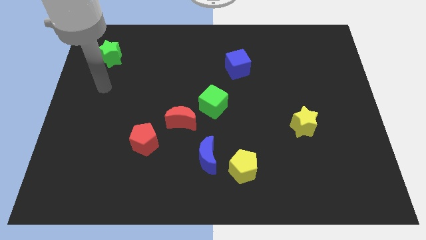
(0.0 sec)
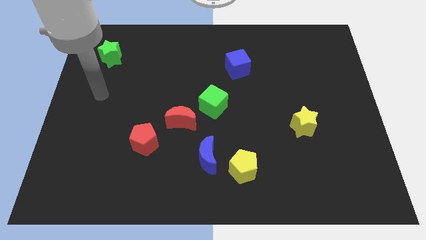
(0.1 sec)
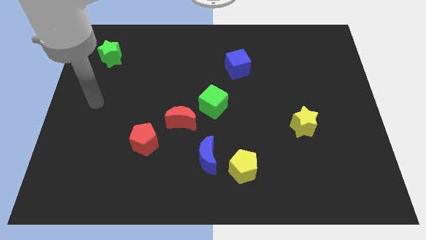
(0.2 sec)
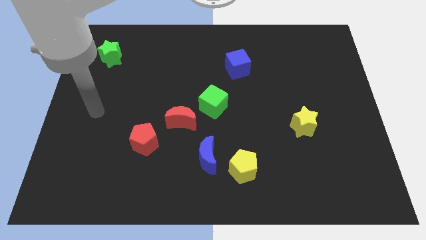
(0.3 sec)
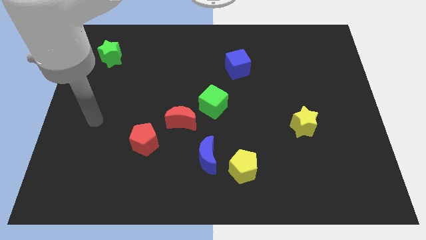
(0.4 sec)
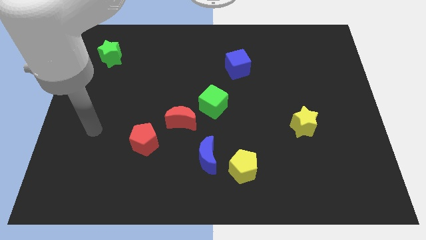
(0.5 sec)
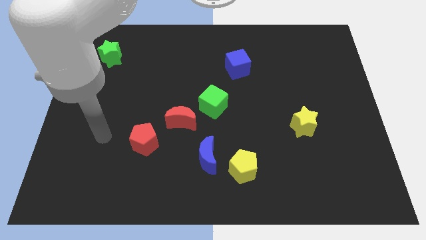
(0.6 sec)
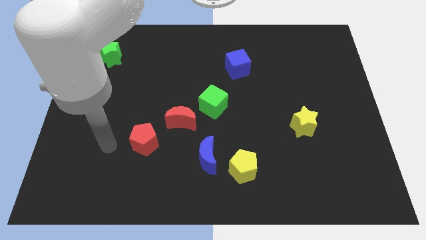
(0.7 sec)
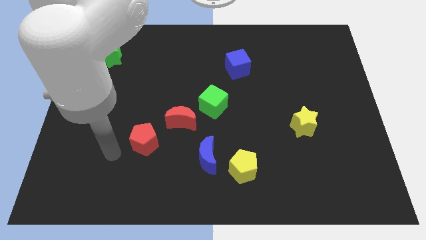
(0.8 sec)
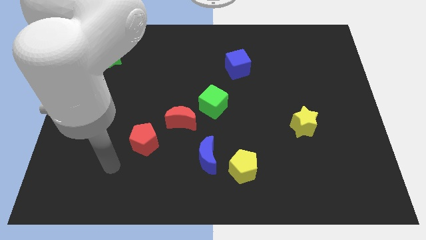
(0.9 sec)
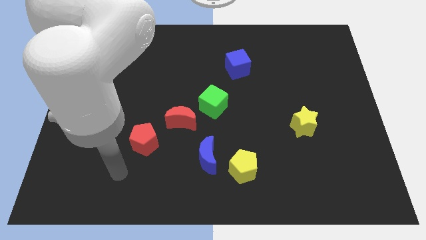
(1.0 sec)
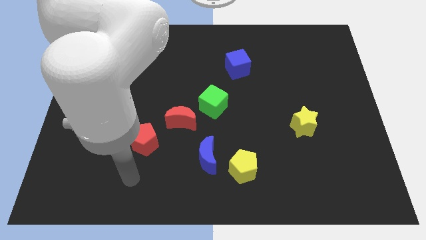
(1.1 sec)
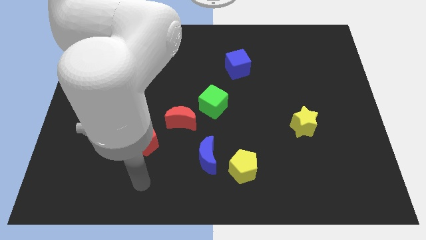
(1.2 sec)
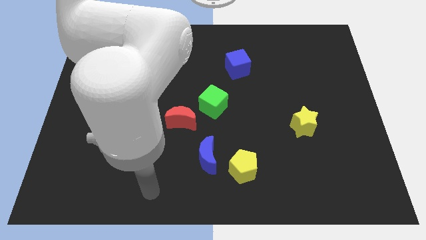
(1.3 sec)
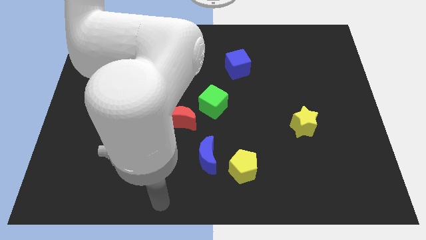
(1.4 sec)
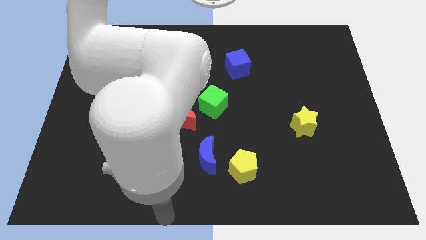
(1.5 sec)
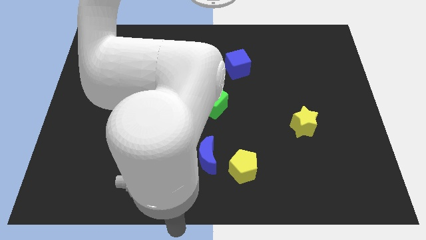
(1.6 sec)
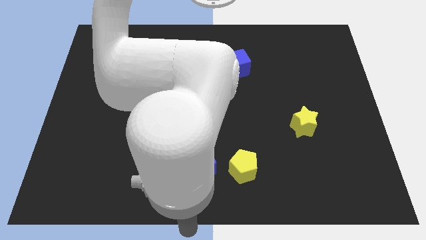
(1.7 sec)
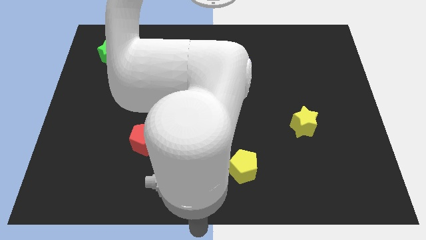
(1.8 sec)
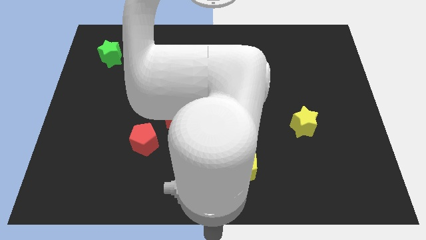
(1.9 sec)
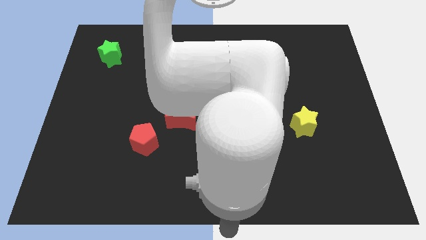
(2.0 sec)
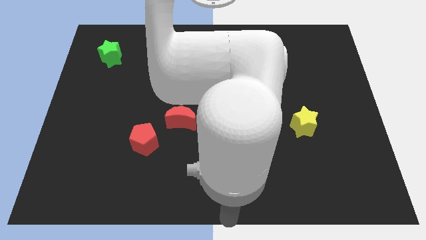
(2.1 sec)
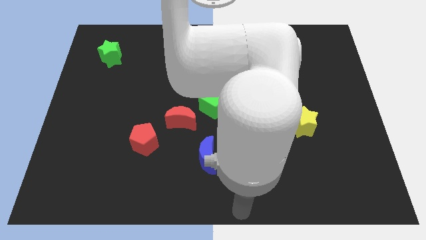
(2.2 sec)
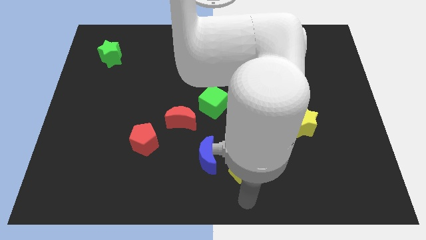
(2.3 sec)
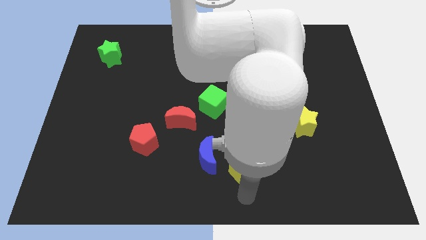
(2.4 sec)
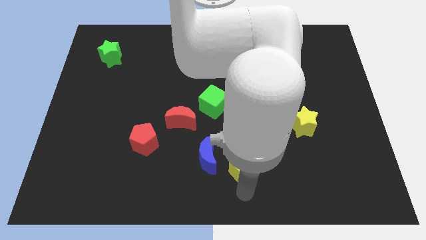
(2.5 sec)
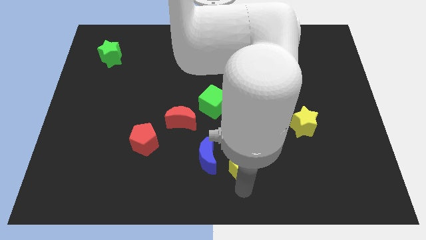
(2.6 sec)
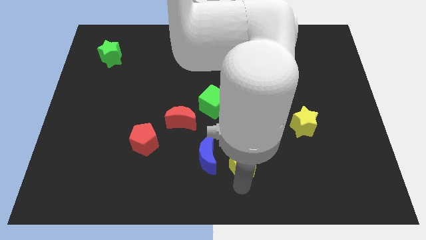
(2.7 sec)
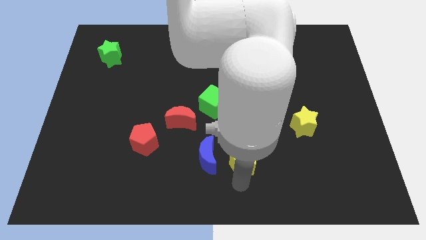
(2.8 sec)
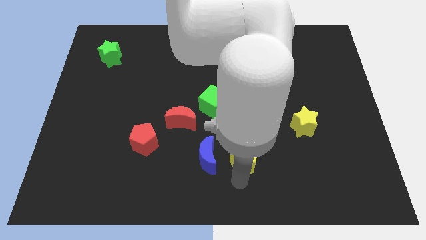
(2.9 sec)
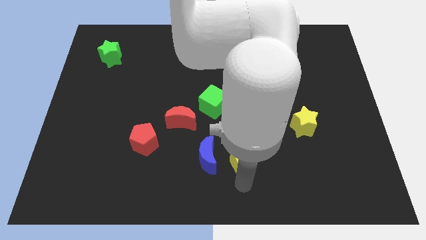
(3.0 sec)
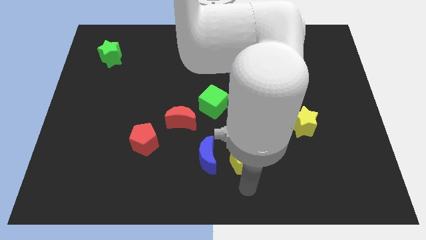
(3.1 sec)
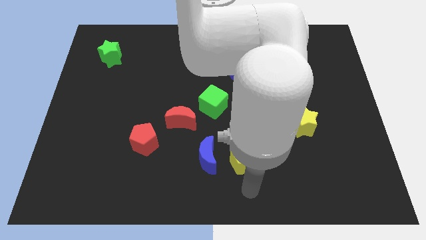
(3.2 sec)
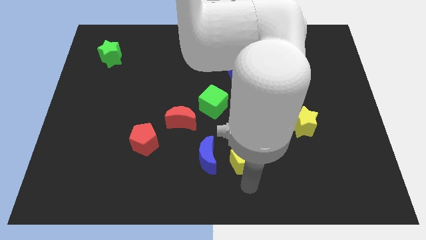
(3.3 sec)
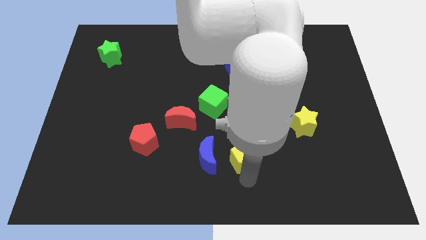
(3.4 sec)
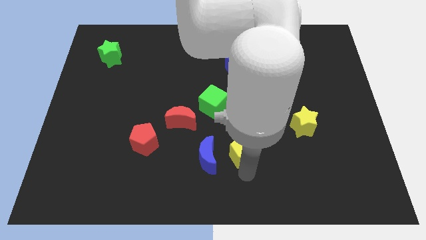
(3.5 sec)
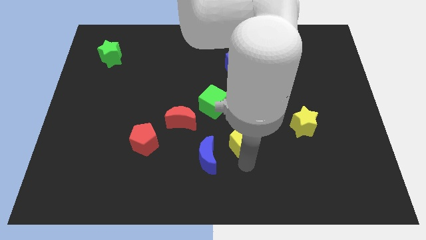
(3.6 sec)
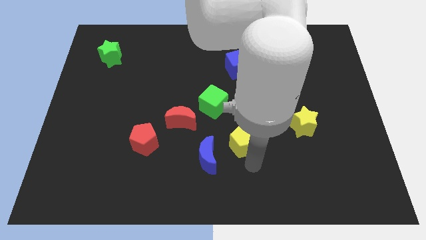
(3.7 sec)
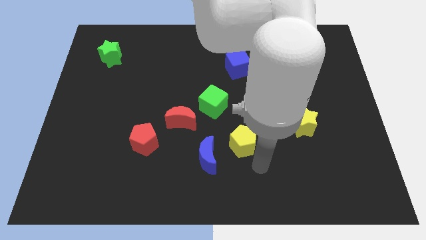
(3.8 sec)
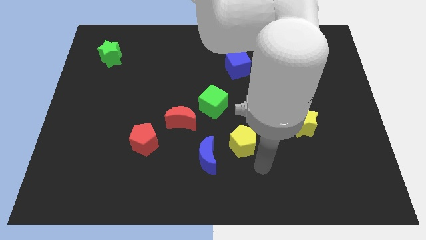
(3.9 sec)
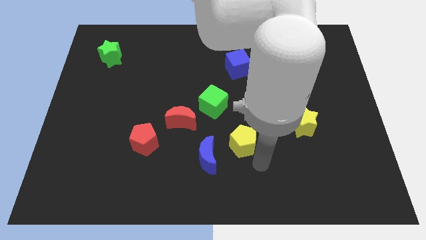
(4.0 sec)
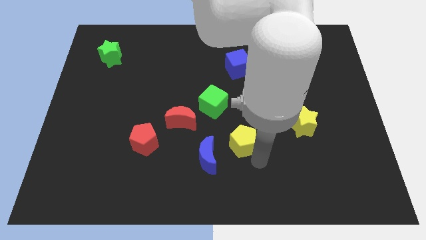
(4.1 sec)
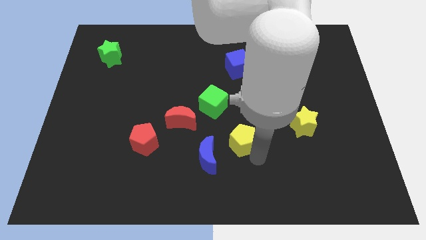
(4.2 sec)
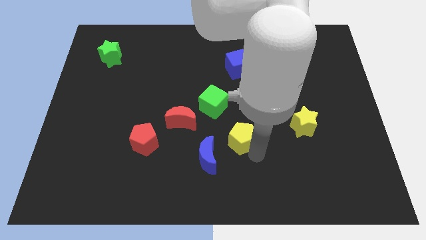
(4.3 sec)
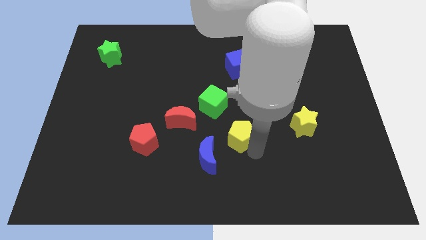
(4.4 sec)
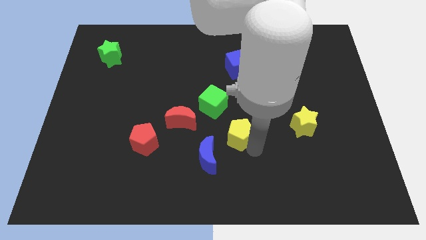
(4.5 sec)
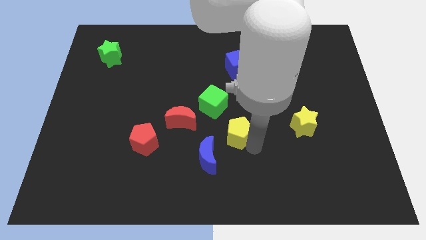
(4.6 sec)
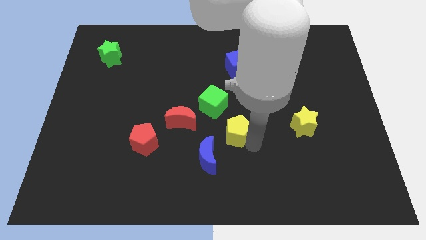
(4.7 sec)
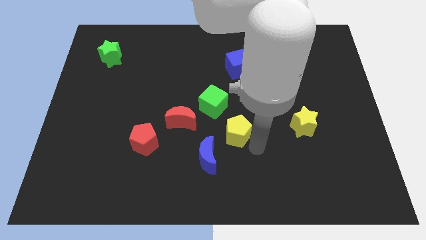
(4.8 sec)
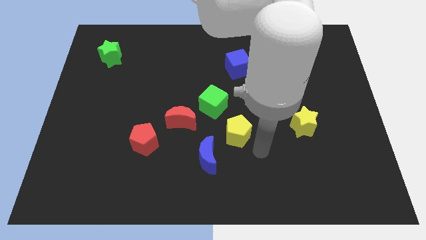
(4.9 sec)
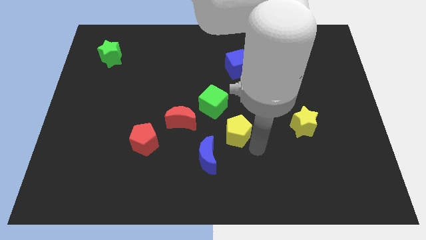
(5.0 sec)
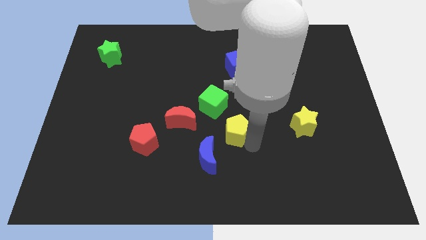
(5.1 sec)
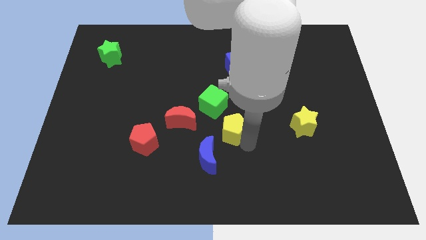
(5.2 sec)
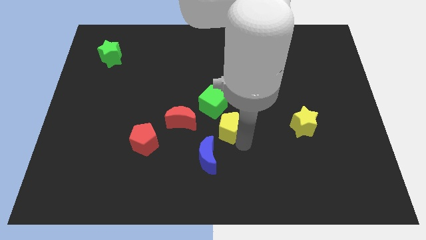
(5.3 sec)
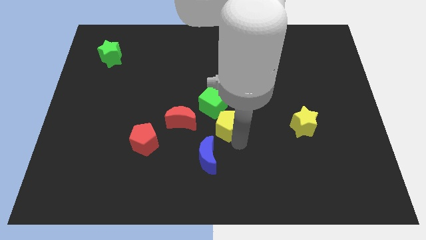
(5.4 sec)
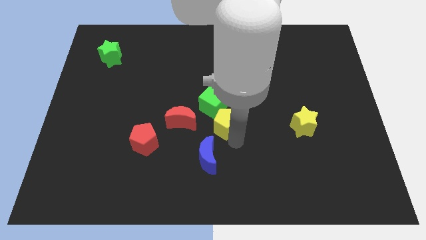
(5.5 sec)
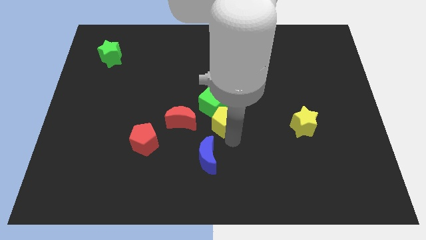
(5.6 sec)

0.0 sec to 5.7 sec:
slide the yellow pentagon to the green cube

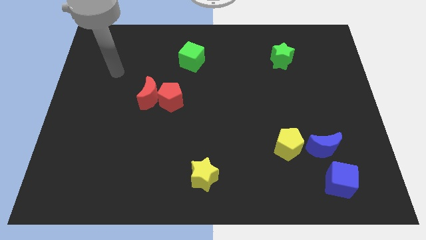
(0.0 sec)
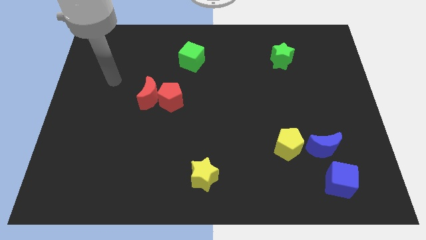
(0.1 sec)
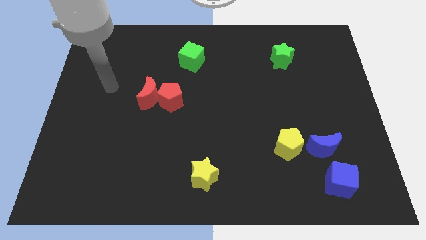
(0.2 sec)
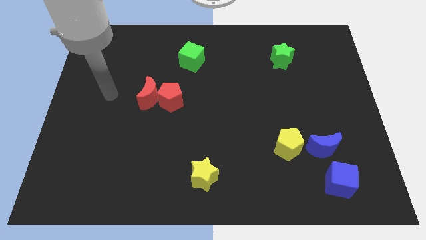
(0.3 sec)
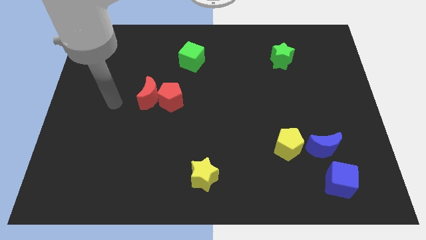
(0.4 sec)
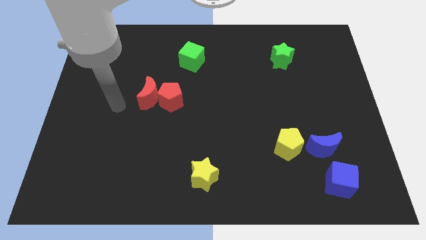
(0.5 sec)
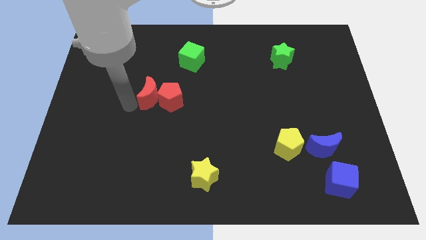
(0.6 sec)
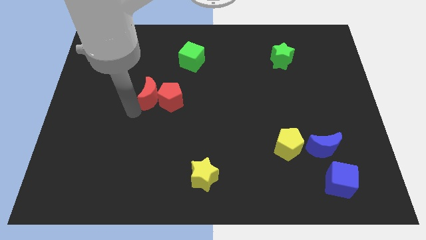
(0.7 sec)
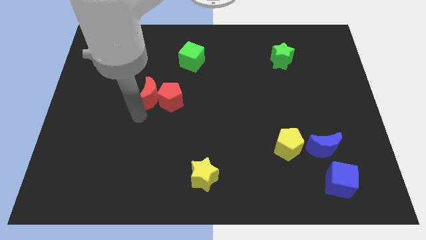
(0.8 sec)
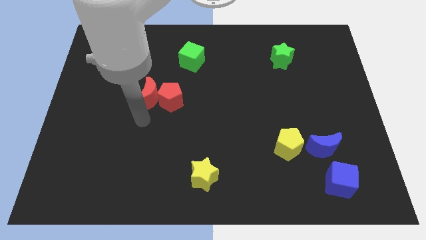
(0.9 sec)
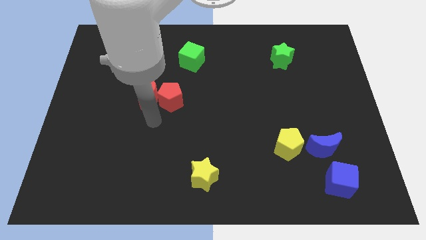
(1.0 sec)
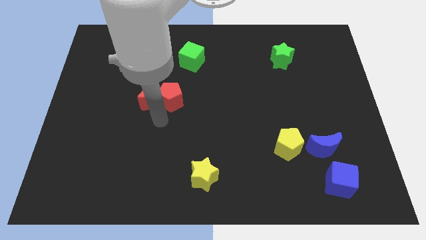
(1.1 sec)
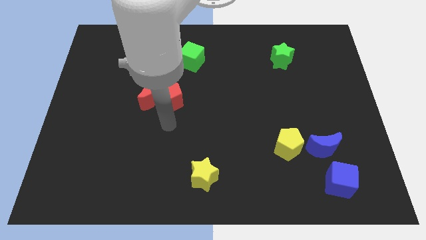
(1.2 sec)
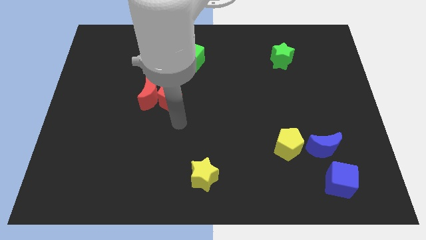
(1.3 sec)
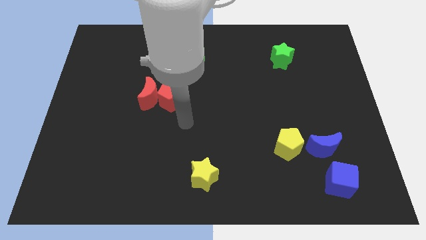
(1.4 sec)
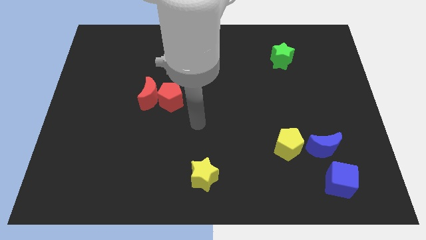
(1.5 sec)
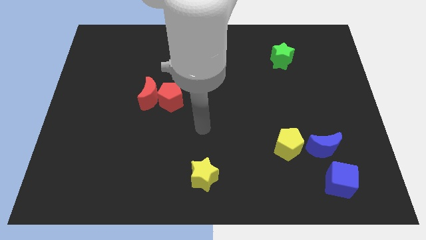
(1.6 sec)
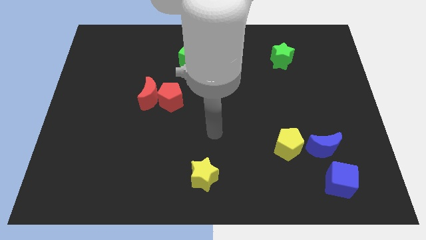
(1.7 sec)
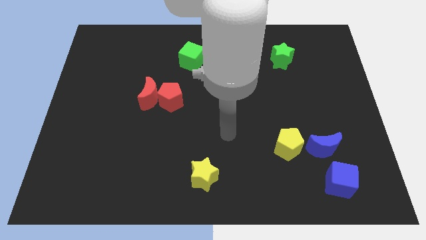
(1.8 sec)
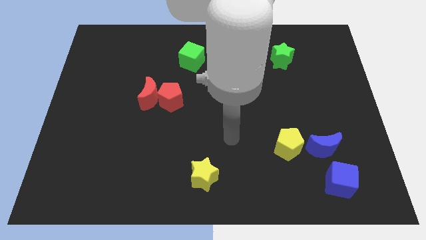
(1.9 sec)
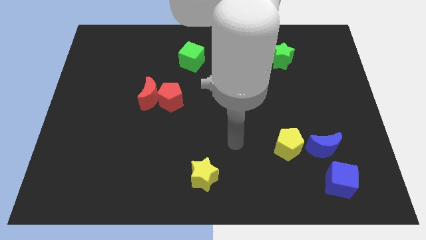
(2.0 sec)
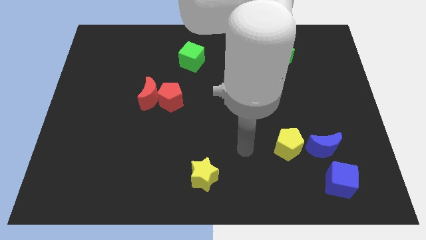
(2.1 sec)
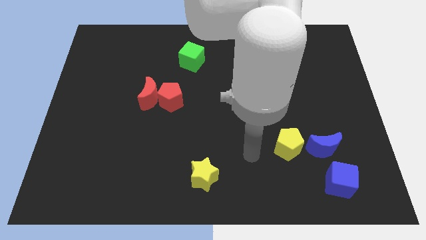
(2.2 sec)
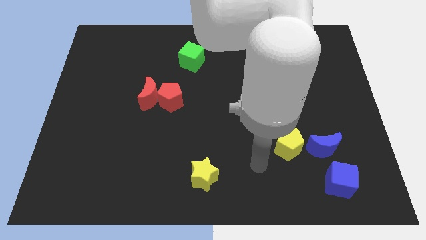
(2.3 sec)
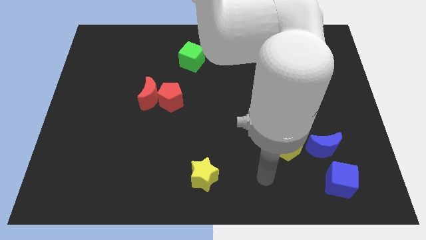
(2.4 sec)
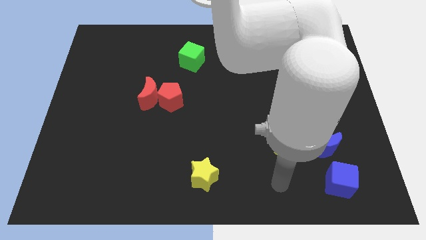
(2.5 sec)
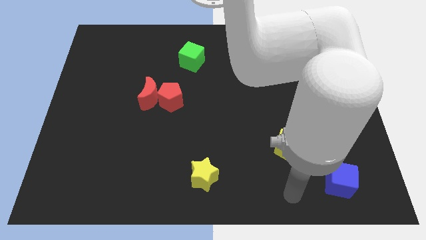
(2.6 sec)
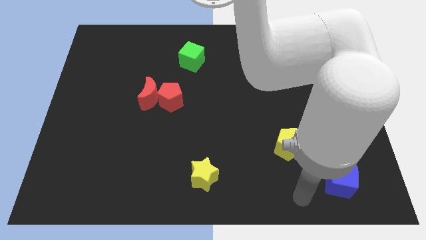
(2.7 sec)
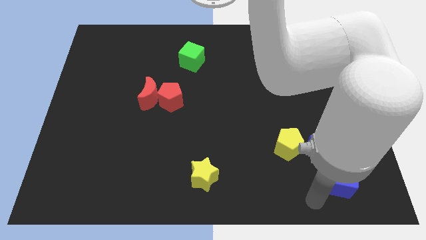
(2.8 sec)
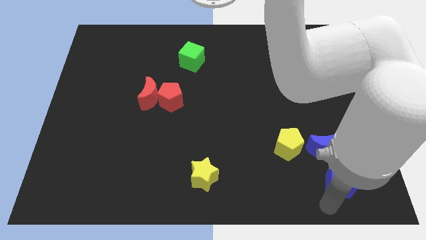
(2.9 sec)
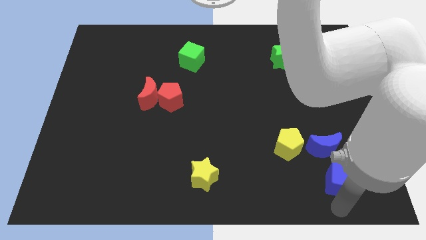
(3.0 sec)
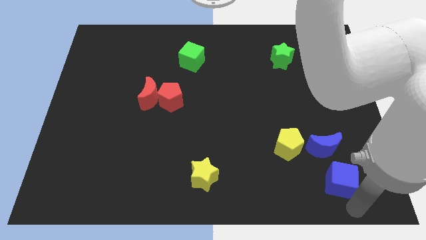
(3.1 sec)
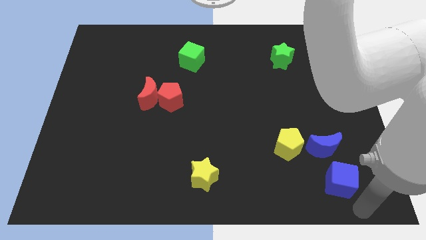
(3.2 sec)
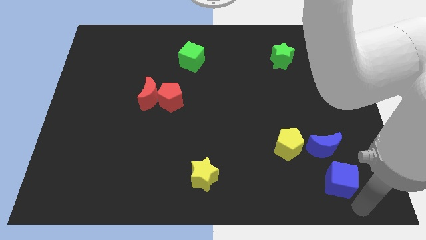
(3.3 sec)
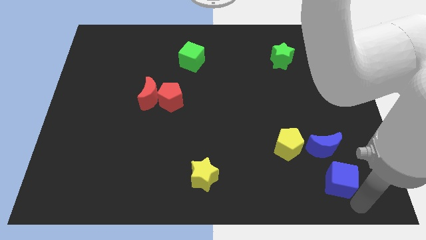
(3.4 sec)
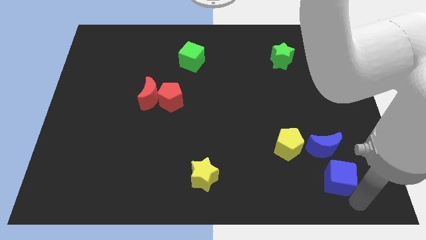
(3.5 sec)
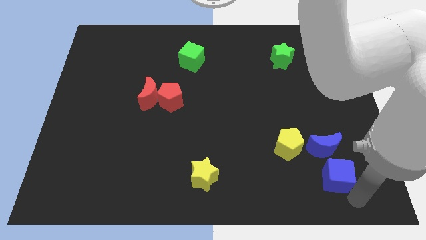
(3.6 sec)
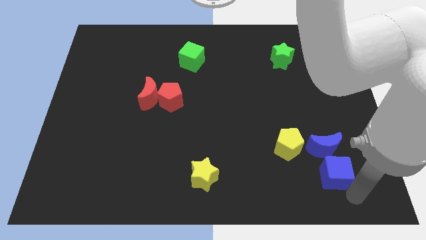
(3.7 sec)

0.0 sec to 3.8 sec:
slide the blue cube close to the blue moon
